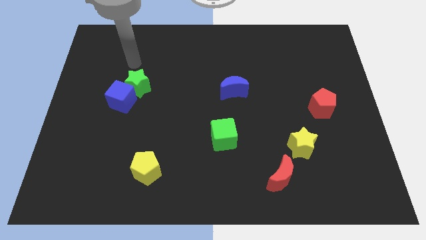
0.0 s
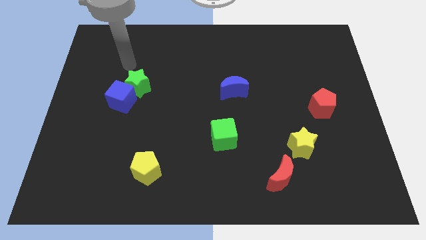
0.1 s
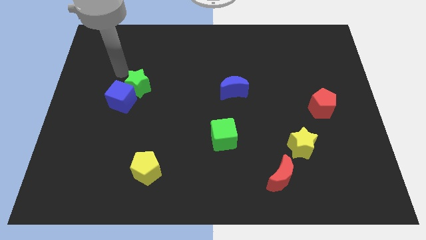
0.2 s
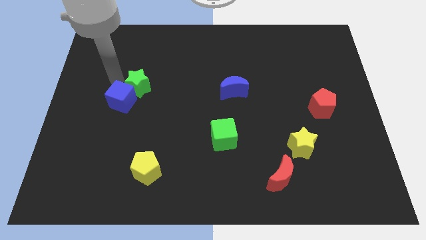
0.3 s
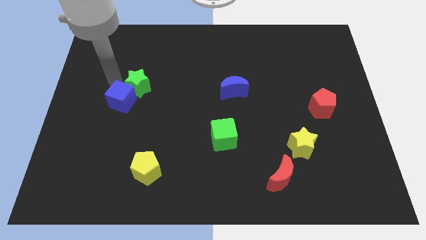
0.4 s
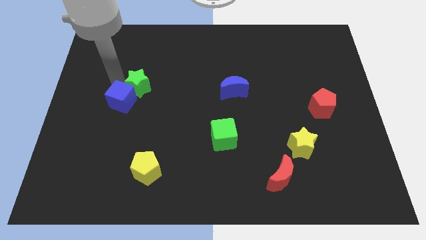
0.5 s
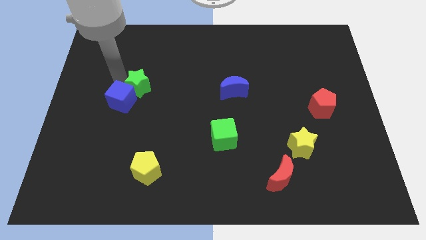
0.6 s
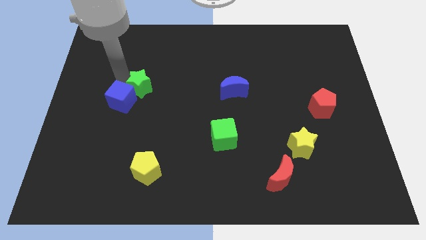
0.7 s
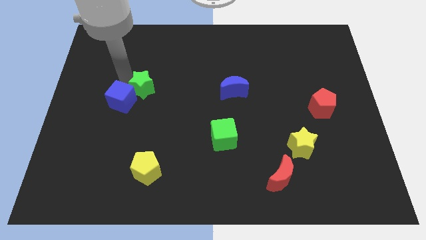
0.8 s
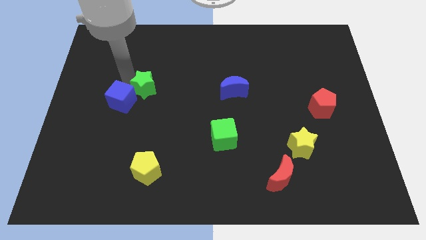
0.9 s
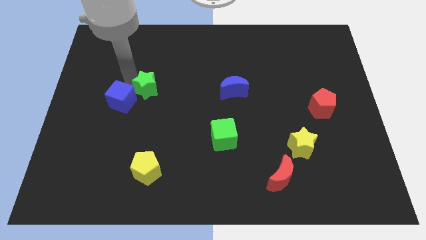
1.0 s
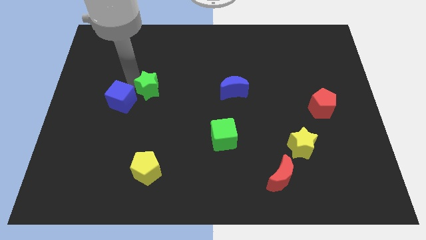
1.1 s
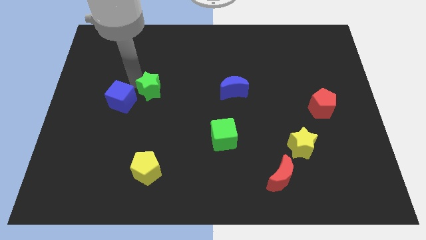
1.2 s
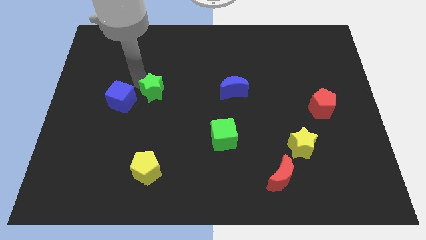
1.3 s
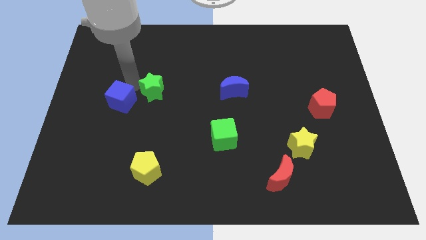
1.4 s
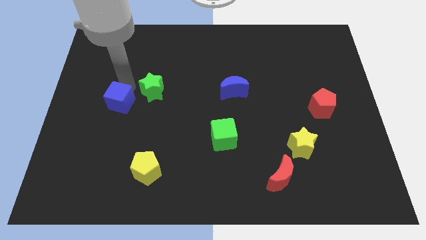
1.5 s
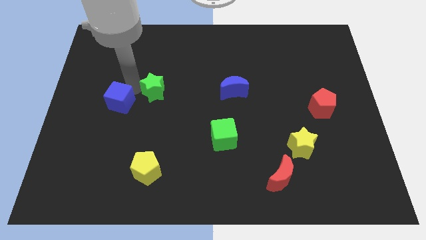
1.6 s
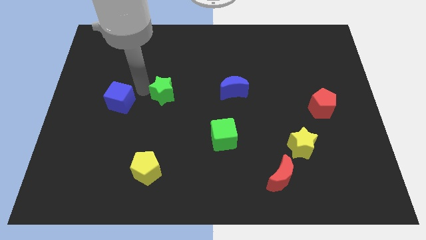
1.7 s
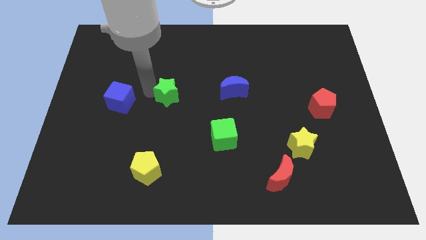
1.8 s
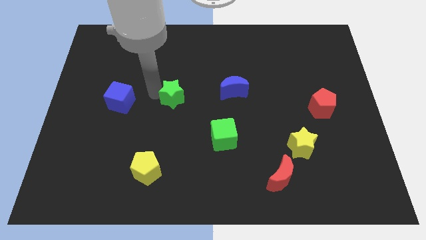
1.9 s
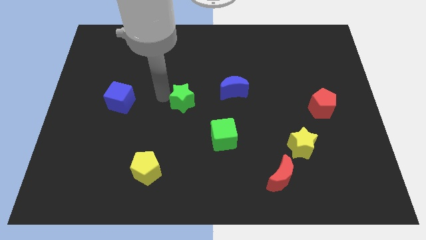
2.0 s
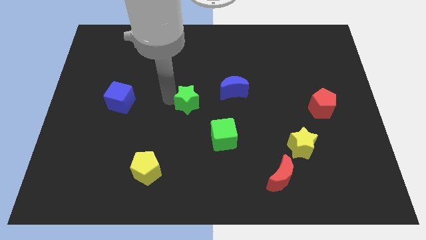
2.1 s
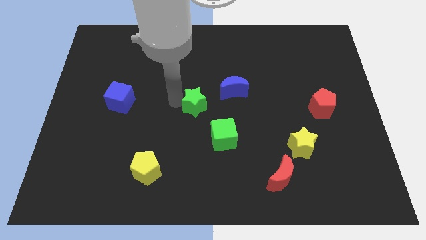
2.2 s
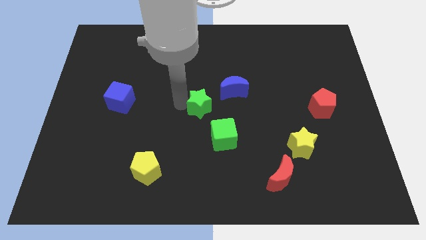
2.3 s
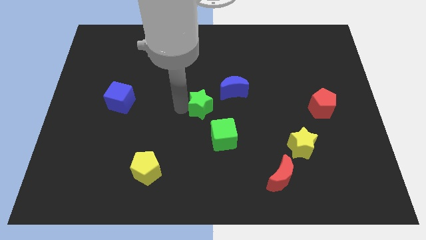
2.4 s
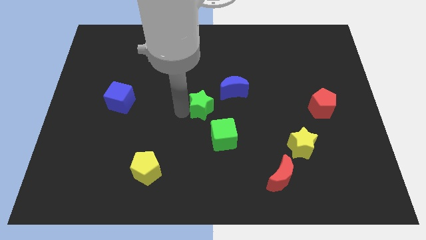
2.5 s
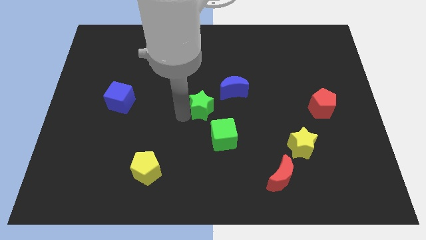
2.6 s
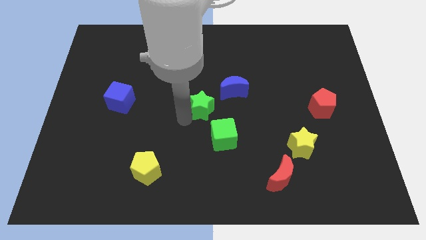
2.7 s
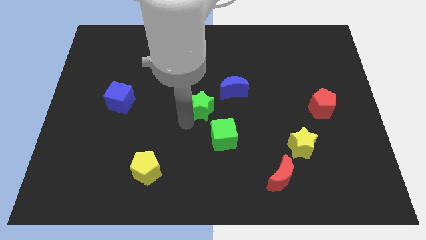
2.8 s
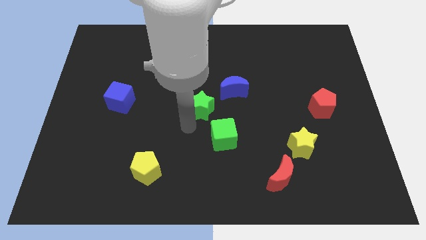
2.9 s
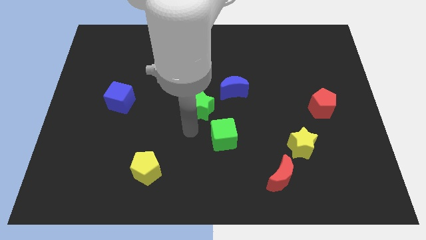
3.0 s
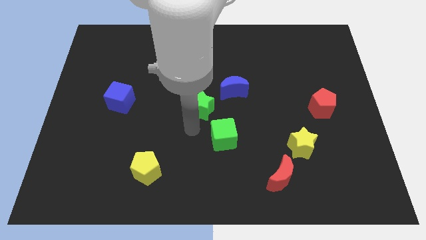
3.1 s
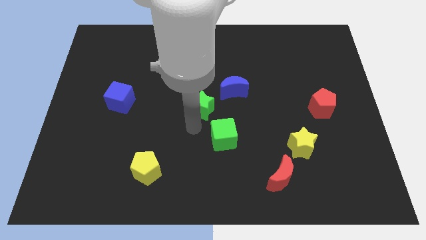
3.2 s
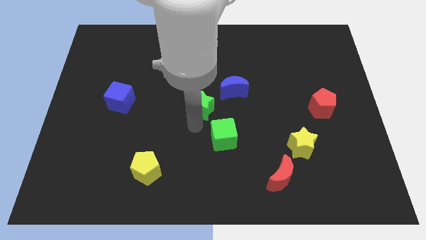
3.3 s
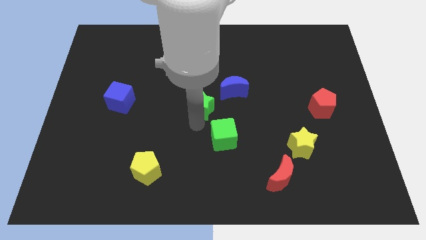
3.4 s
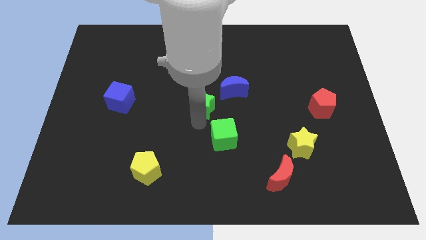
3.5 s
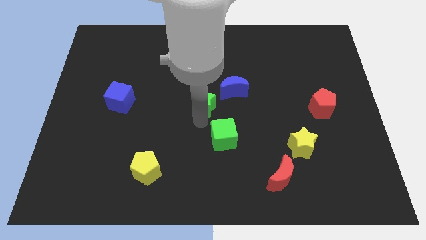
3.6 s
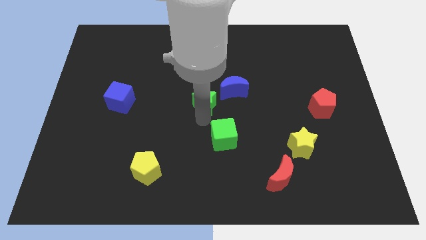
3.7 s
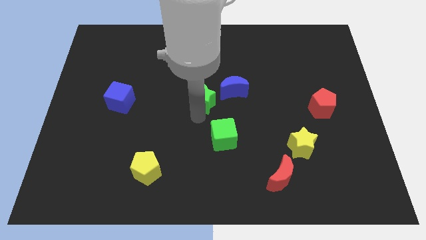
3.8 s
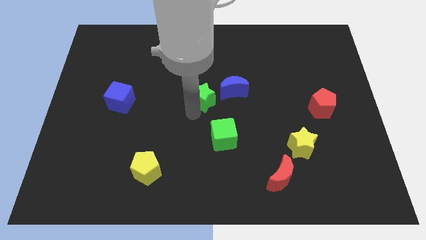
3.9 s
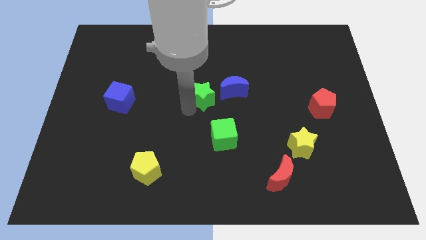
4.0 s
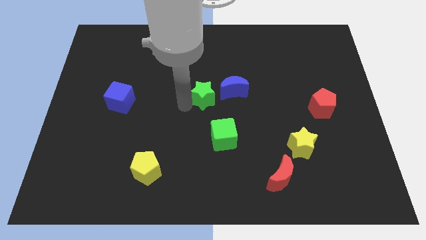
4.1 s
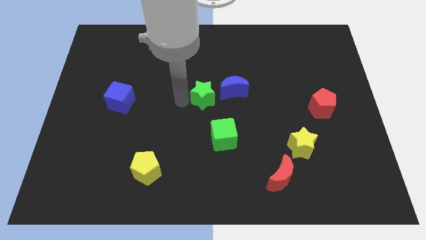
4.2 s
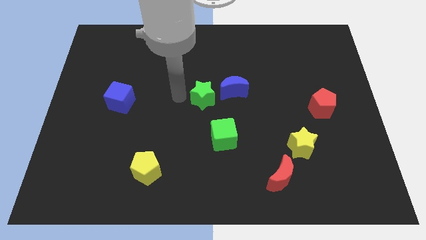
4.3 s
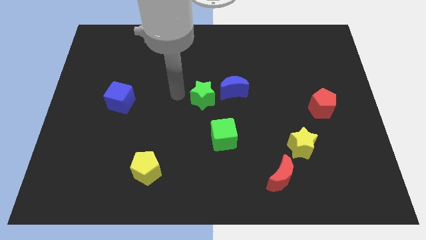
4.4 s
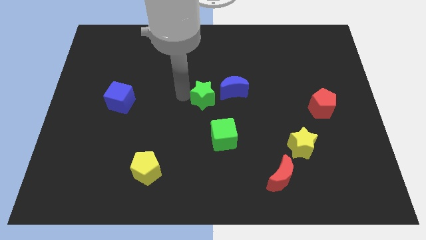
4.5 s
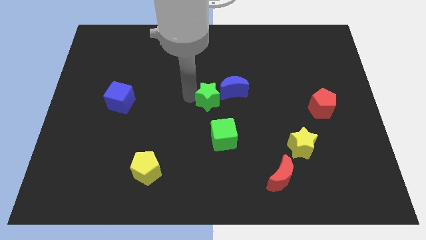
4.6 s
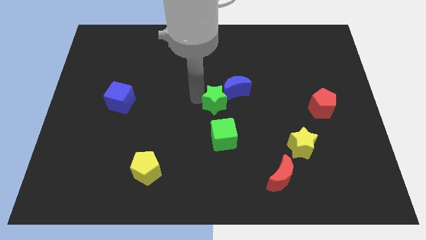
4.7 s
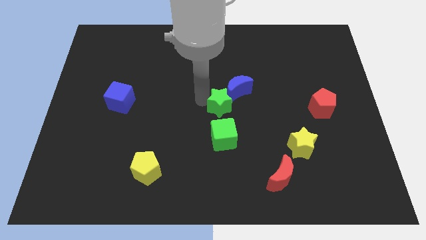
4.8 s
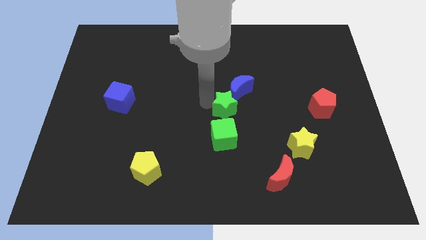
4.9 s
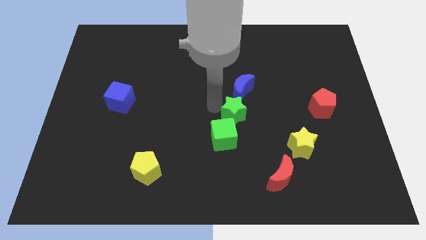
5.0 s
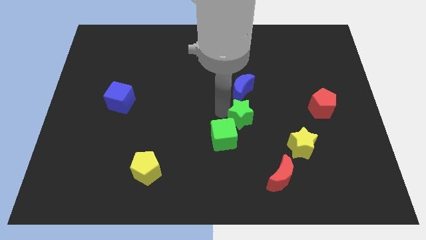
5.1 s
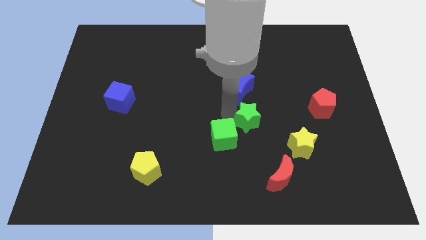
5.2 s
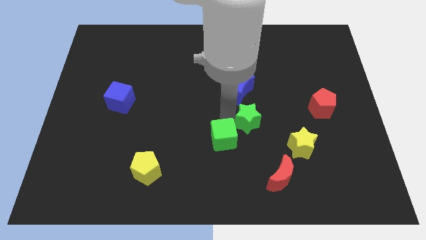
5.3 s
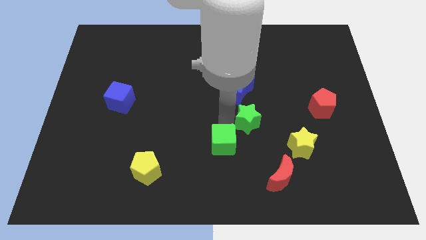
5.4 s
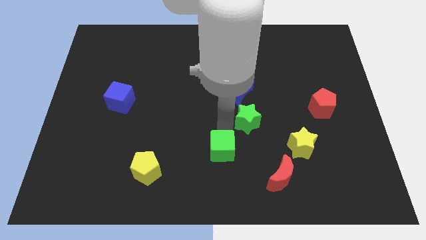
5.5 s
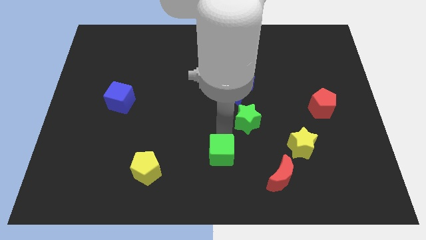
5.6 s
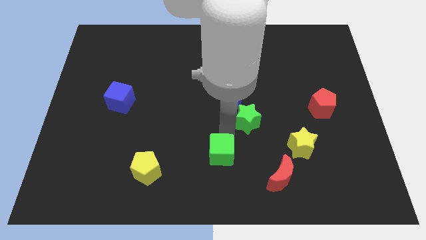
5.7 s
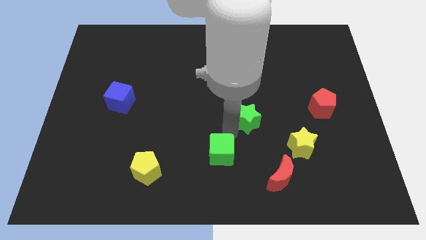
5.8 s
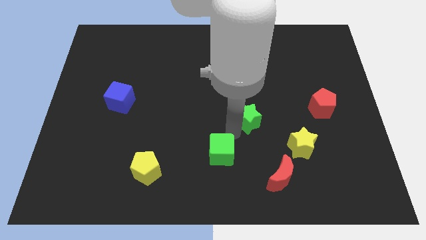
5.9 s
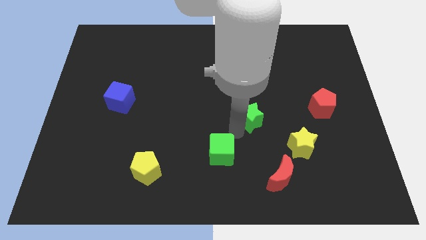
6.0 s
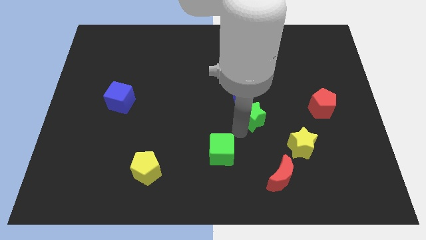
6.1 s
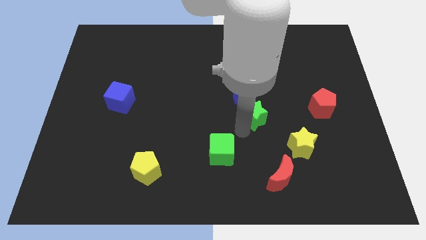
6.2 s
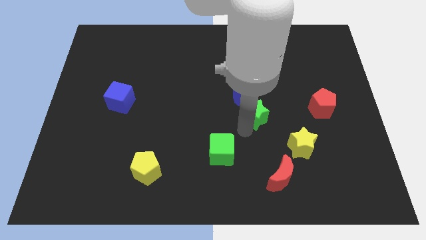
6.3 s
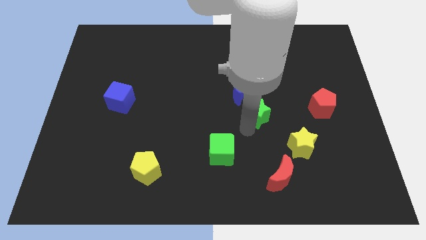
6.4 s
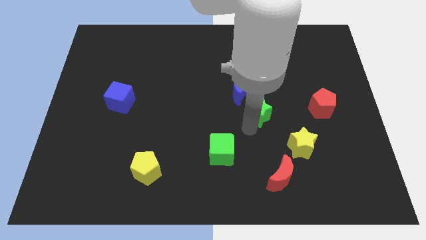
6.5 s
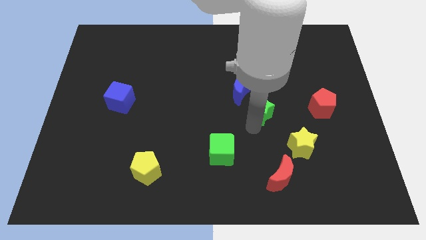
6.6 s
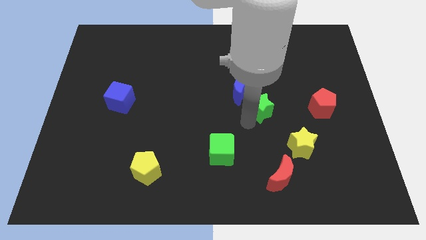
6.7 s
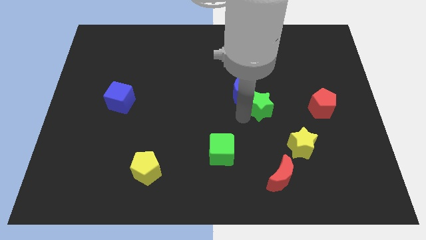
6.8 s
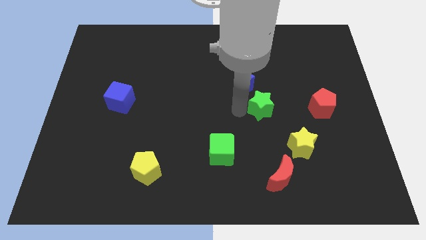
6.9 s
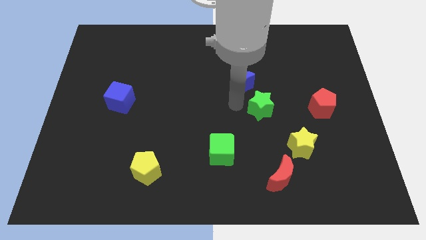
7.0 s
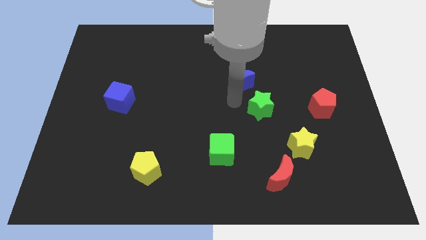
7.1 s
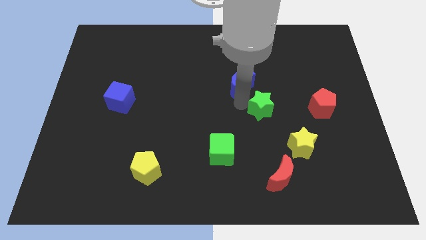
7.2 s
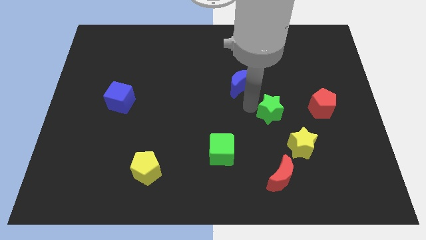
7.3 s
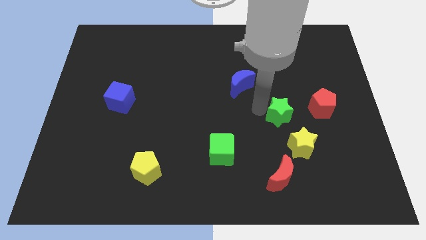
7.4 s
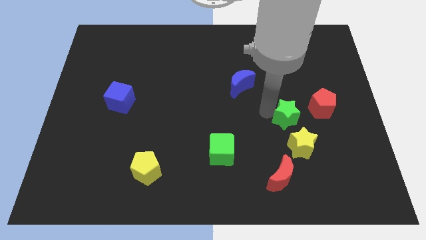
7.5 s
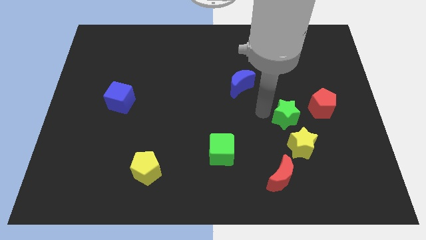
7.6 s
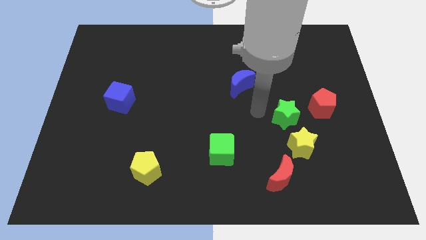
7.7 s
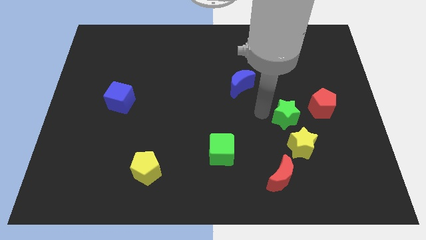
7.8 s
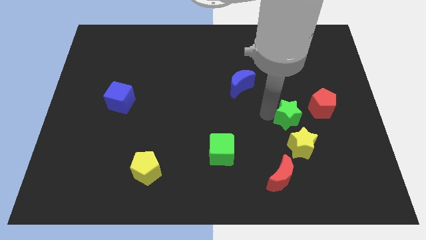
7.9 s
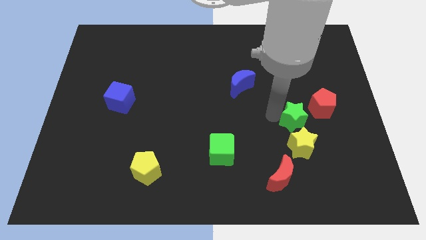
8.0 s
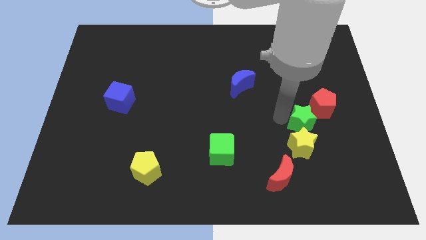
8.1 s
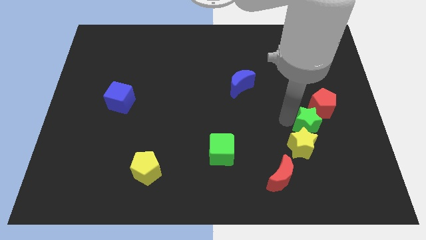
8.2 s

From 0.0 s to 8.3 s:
put the green star to the bottom of the red pentagon
